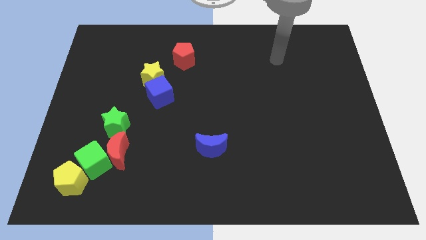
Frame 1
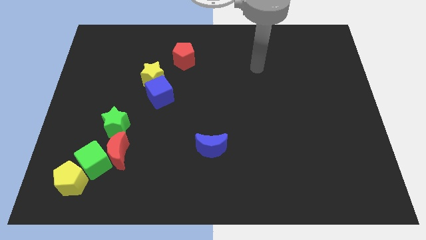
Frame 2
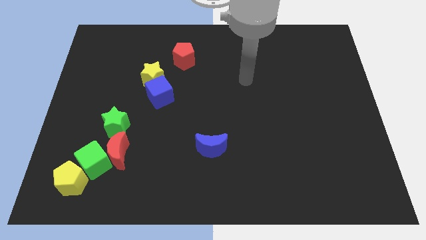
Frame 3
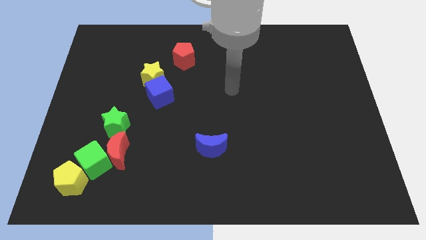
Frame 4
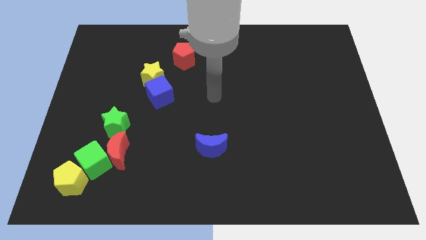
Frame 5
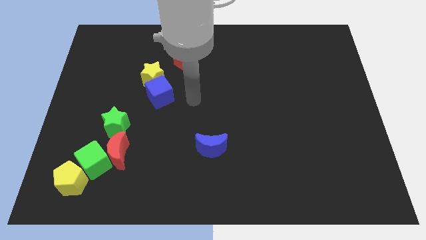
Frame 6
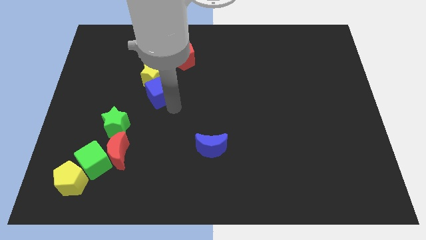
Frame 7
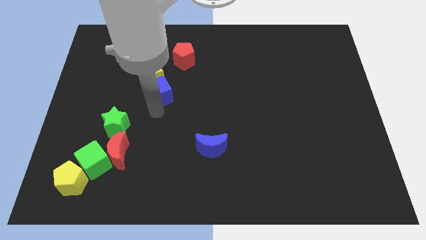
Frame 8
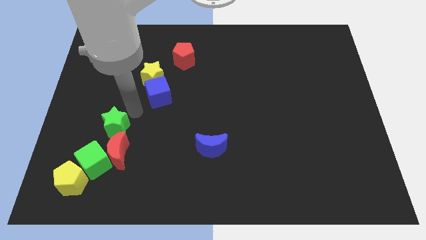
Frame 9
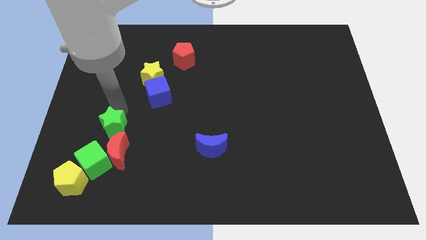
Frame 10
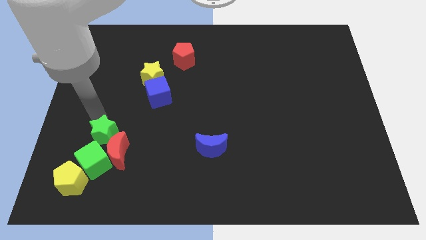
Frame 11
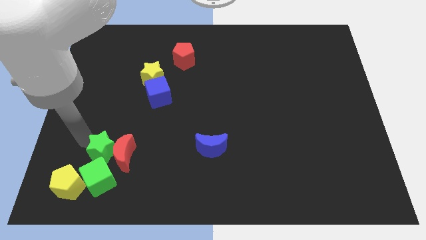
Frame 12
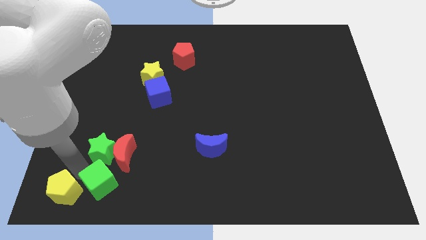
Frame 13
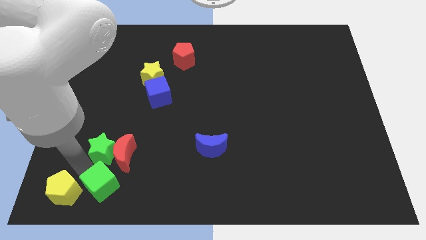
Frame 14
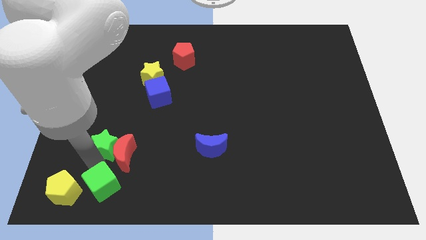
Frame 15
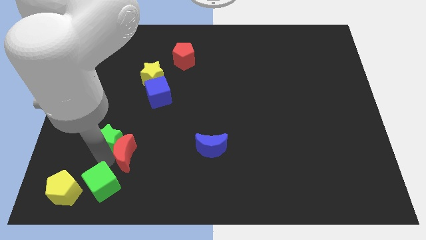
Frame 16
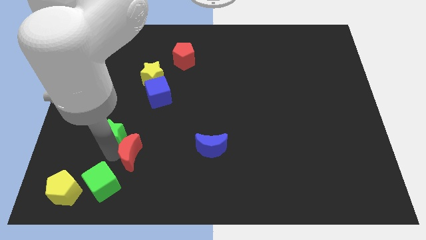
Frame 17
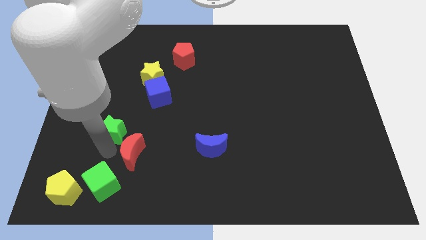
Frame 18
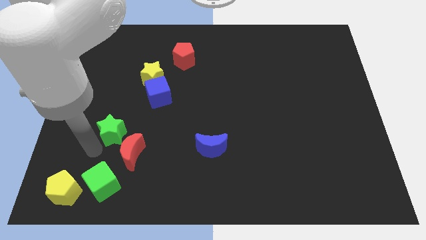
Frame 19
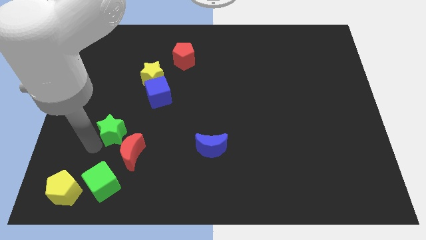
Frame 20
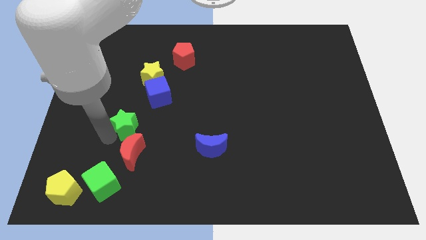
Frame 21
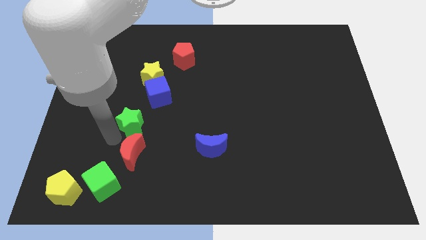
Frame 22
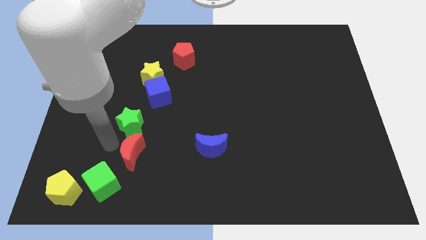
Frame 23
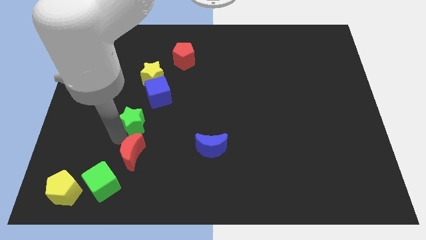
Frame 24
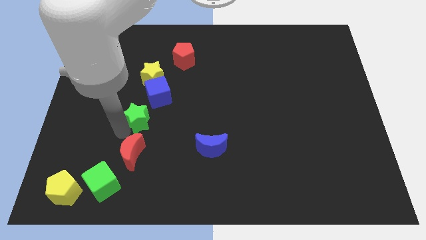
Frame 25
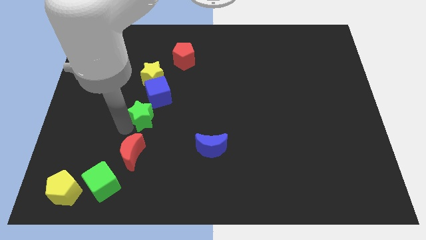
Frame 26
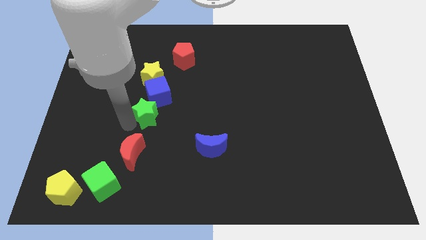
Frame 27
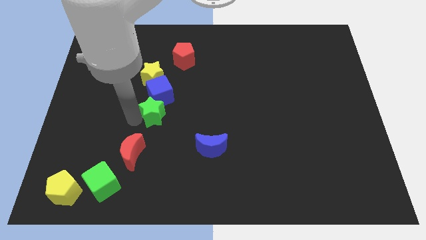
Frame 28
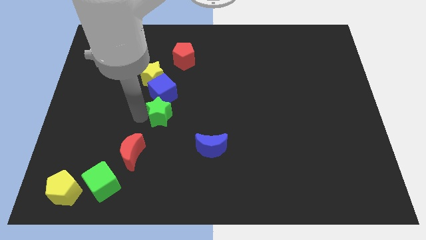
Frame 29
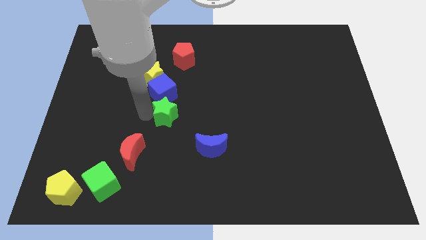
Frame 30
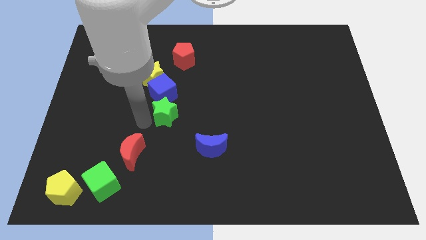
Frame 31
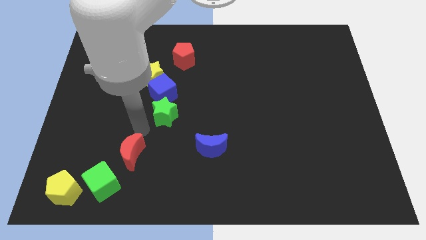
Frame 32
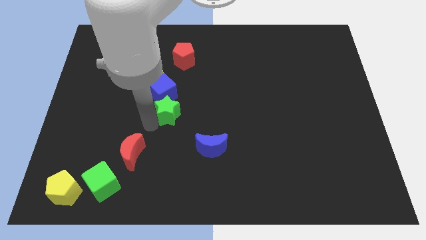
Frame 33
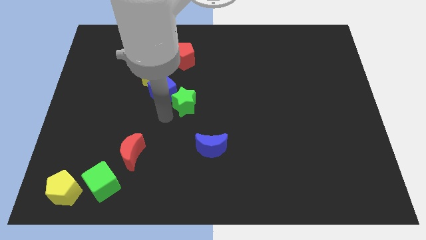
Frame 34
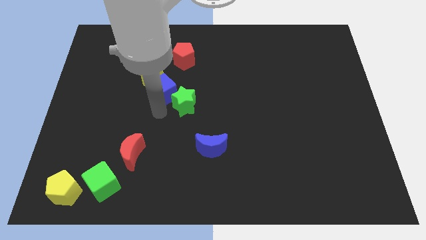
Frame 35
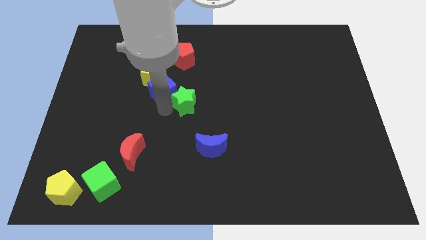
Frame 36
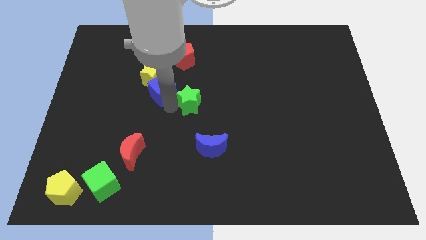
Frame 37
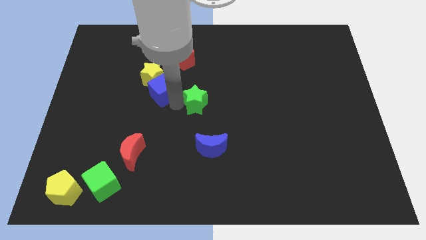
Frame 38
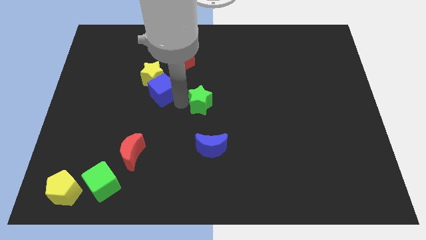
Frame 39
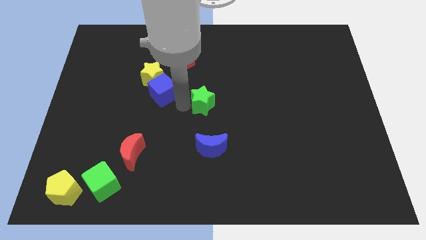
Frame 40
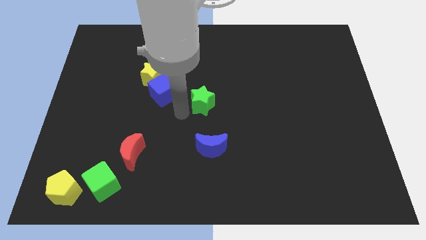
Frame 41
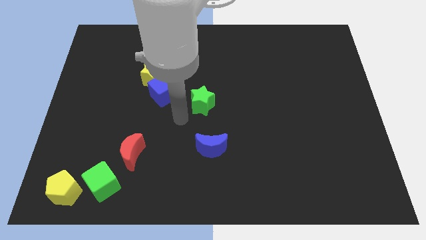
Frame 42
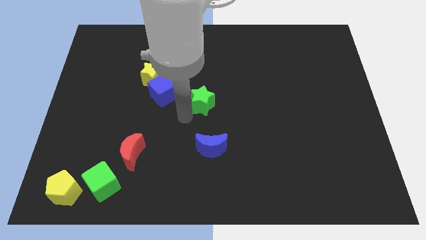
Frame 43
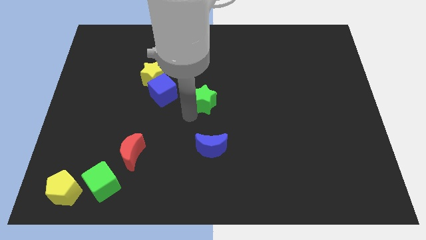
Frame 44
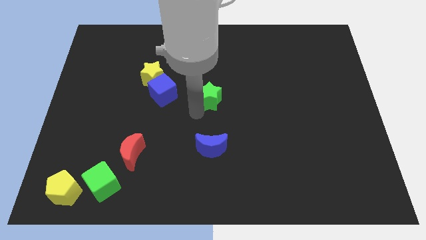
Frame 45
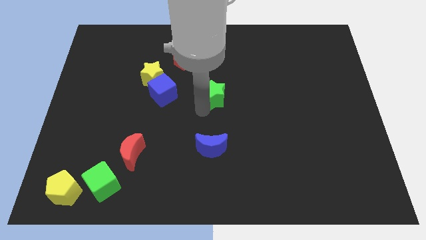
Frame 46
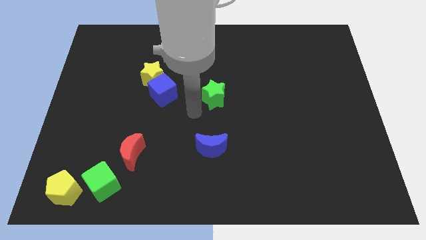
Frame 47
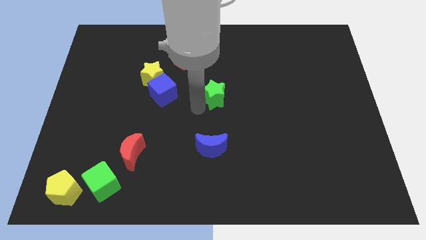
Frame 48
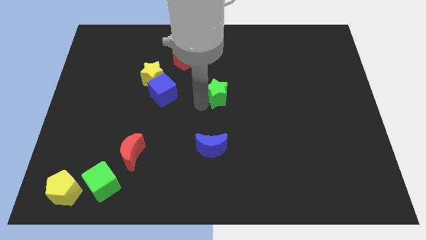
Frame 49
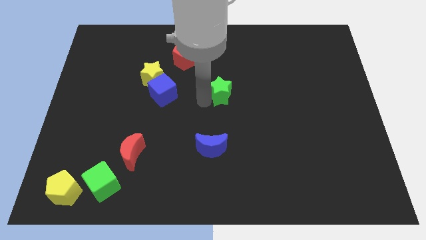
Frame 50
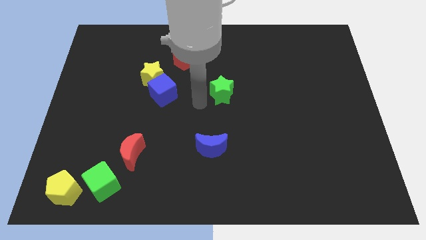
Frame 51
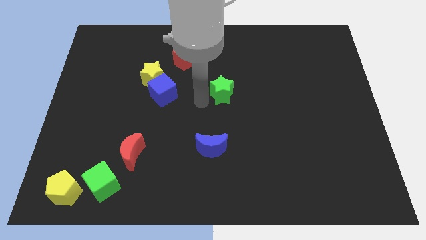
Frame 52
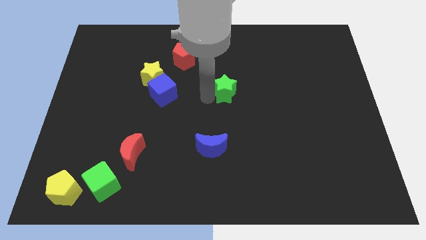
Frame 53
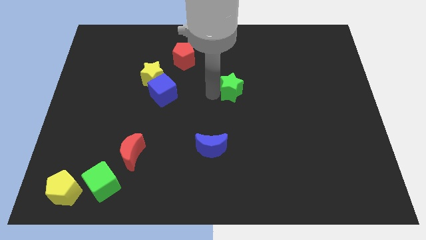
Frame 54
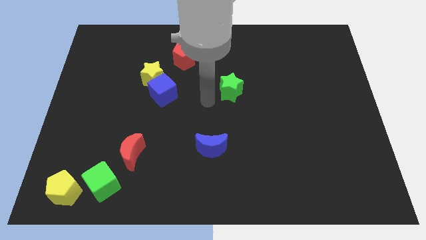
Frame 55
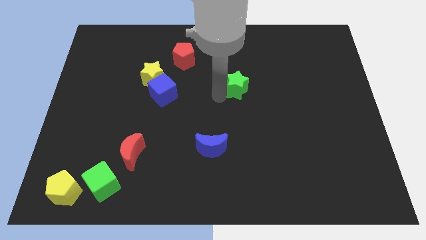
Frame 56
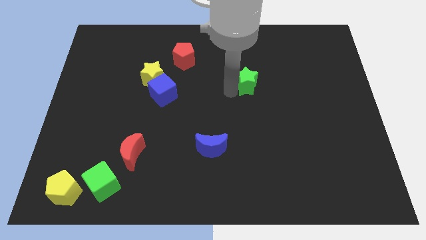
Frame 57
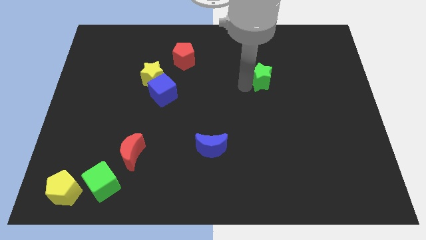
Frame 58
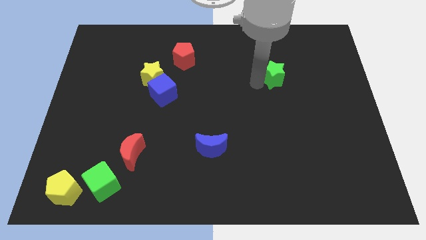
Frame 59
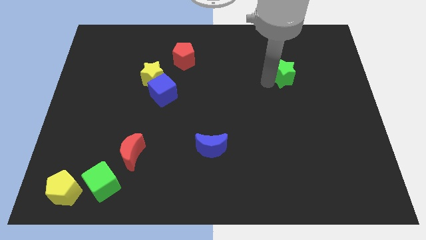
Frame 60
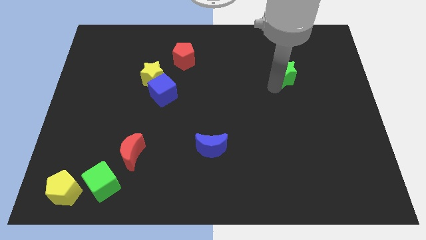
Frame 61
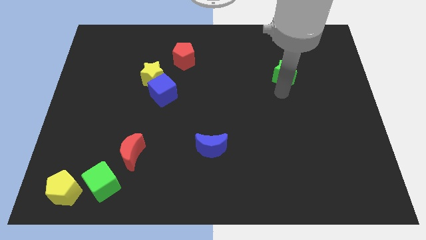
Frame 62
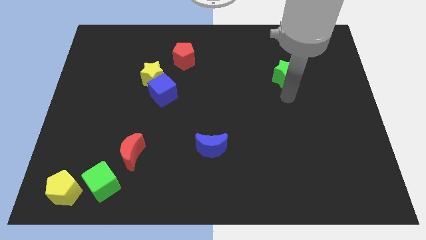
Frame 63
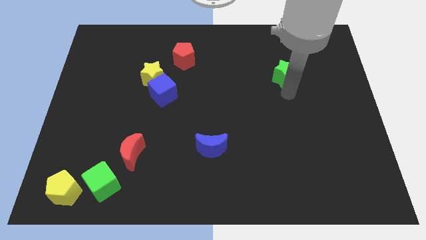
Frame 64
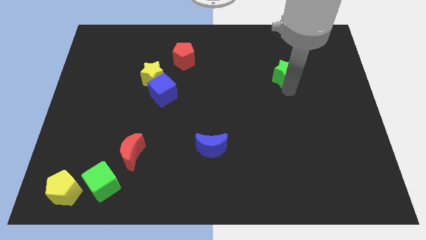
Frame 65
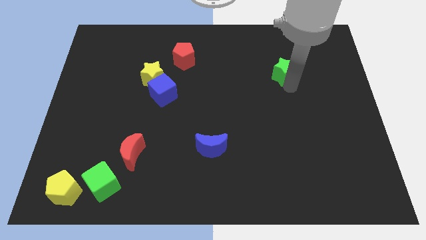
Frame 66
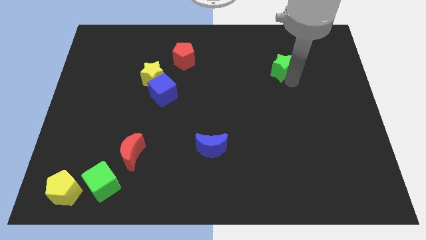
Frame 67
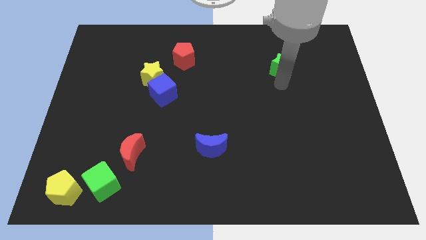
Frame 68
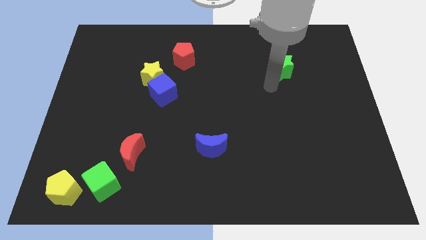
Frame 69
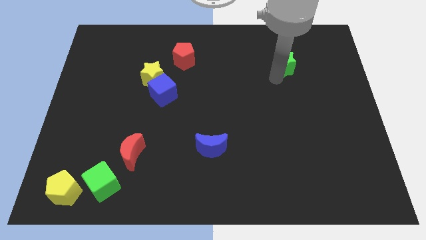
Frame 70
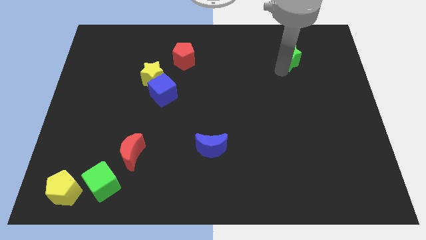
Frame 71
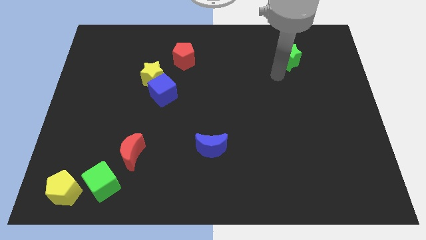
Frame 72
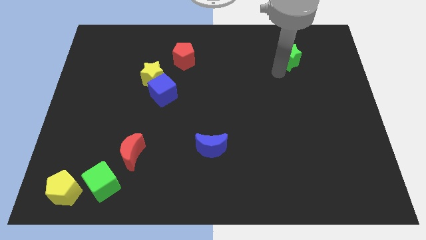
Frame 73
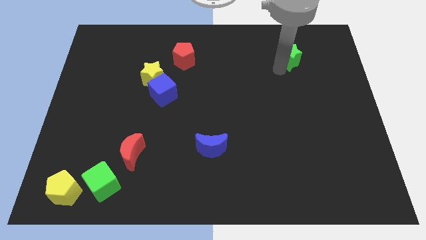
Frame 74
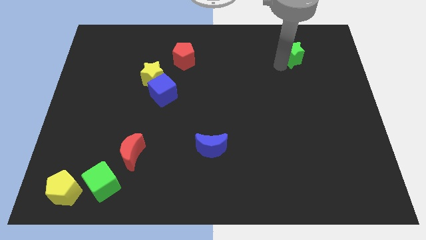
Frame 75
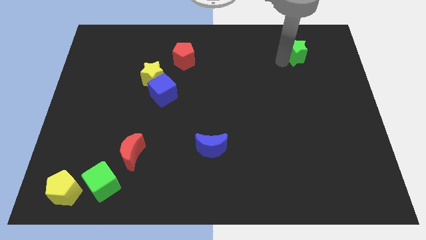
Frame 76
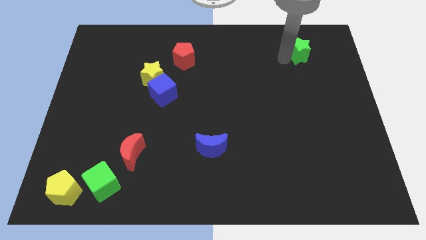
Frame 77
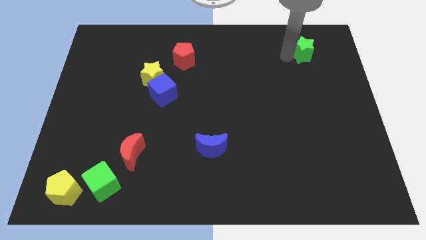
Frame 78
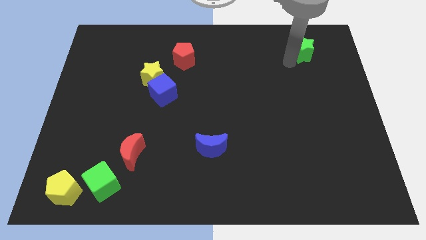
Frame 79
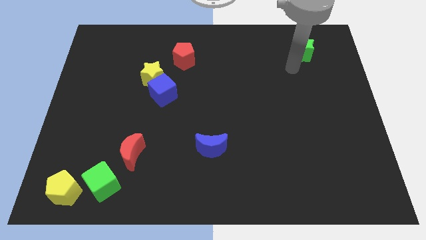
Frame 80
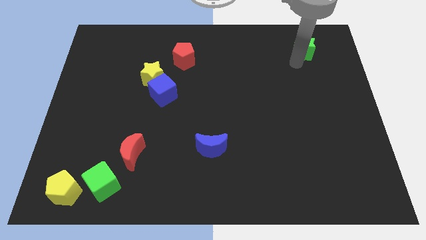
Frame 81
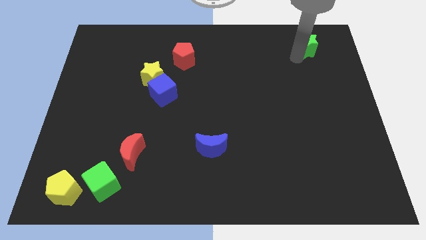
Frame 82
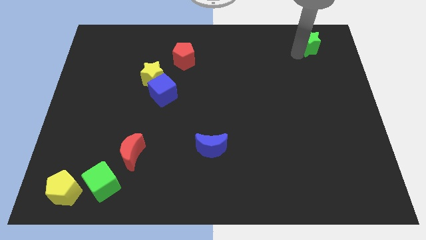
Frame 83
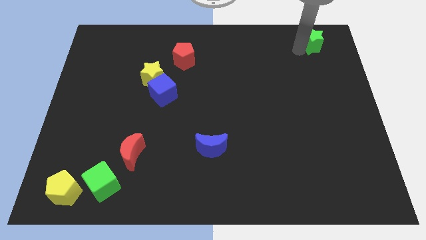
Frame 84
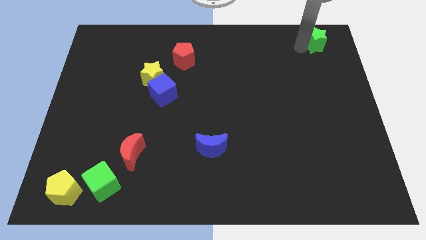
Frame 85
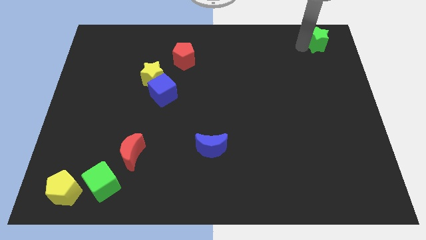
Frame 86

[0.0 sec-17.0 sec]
slide the green star to the upper right corner
